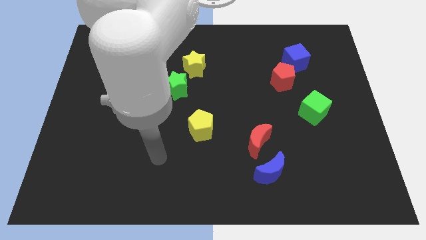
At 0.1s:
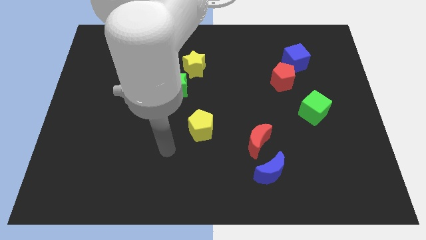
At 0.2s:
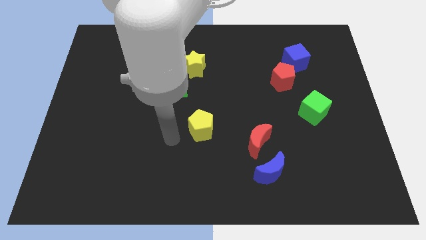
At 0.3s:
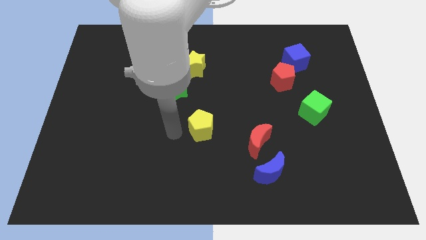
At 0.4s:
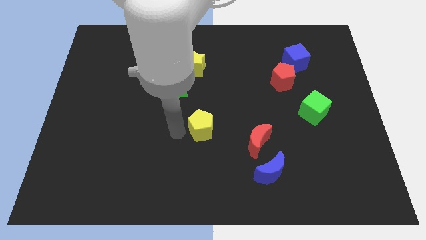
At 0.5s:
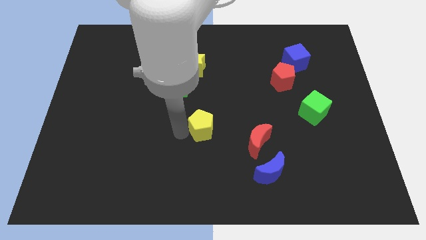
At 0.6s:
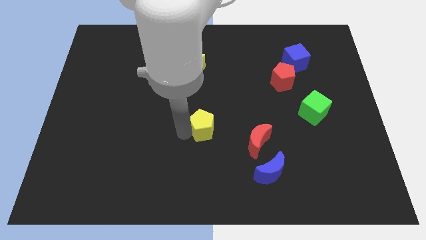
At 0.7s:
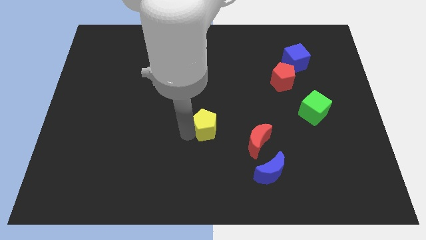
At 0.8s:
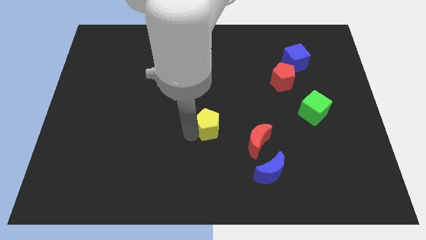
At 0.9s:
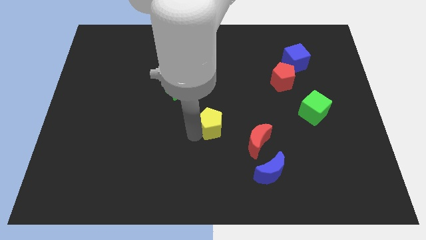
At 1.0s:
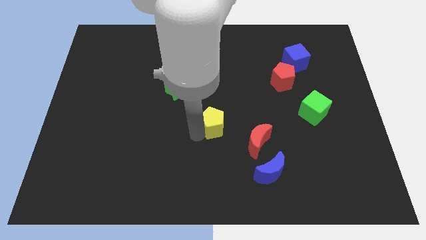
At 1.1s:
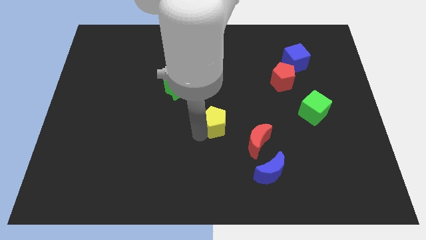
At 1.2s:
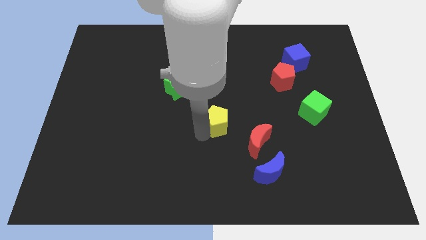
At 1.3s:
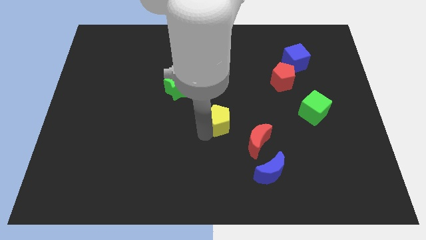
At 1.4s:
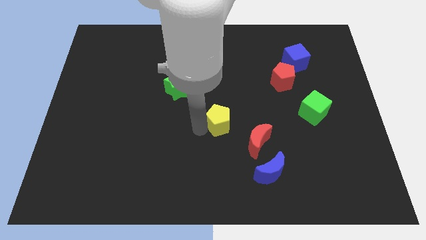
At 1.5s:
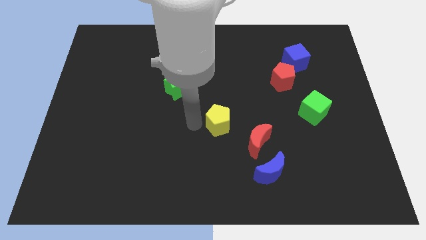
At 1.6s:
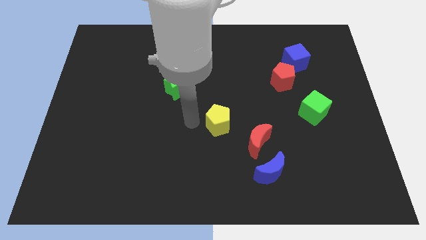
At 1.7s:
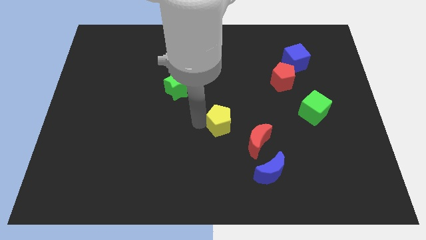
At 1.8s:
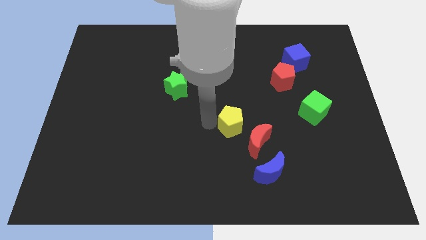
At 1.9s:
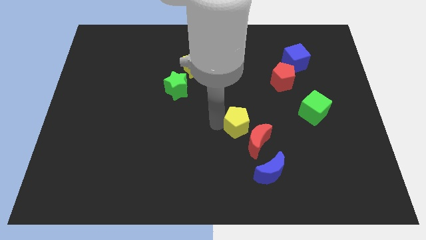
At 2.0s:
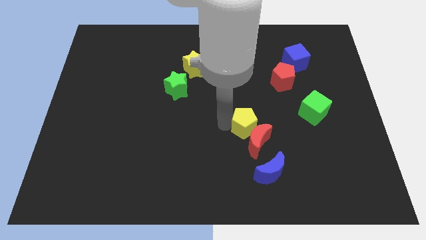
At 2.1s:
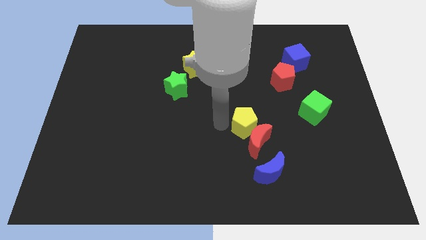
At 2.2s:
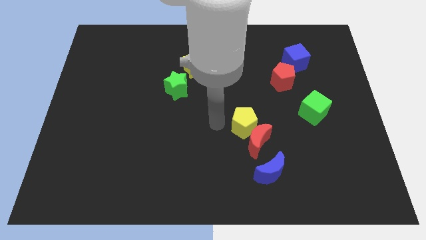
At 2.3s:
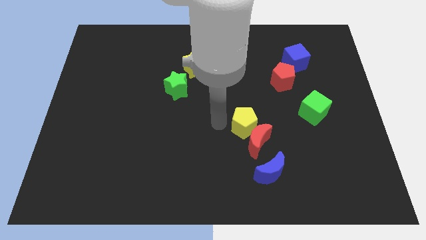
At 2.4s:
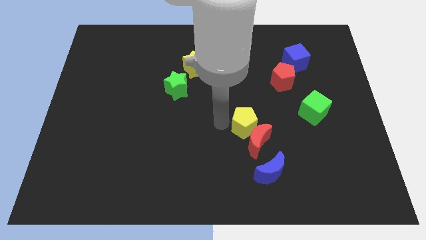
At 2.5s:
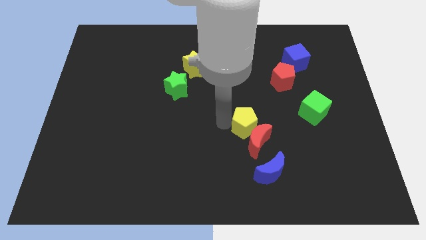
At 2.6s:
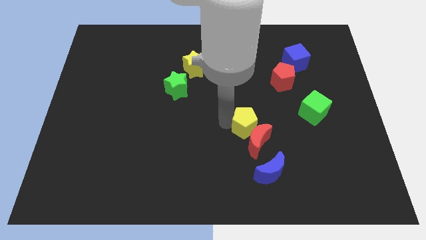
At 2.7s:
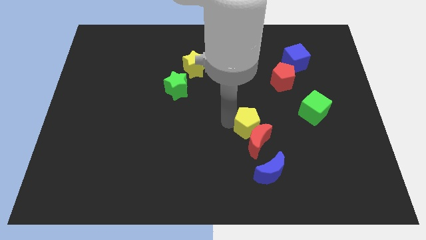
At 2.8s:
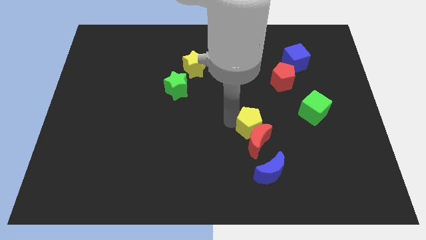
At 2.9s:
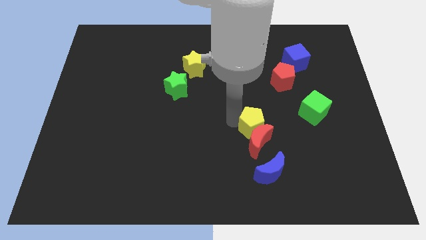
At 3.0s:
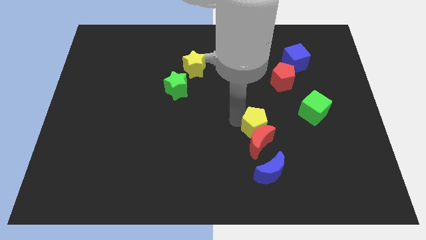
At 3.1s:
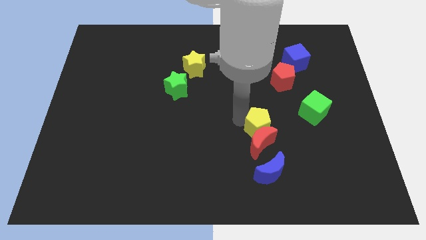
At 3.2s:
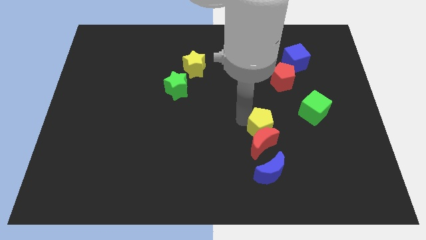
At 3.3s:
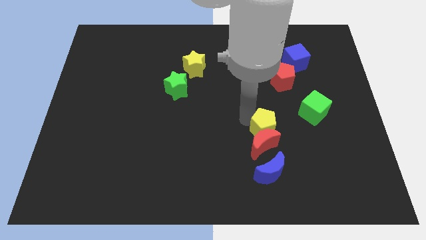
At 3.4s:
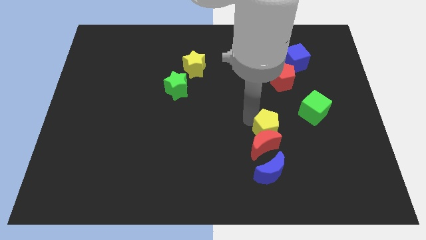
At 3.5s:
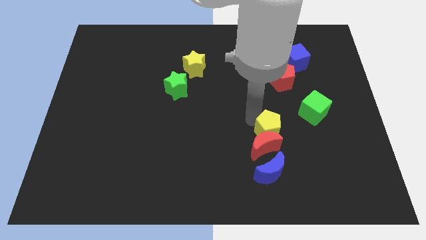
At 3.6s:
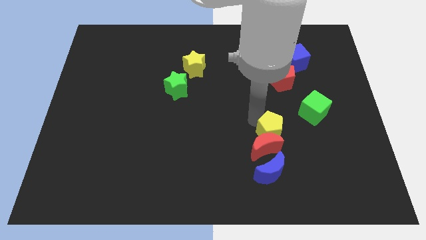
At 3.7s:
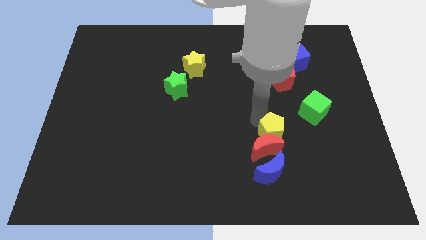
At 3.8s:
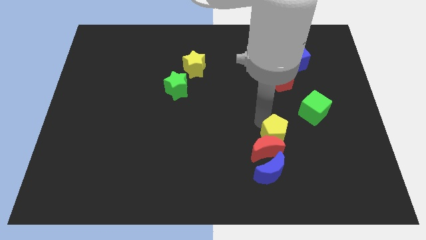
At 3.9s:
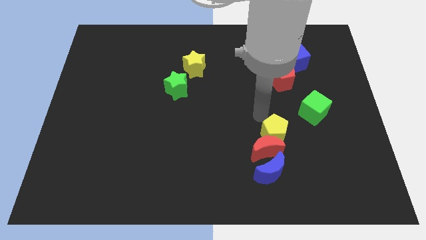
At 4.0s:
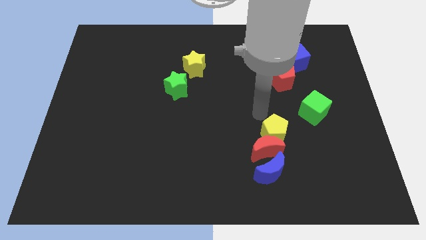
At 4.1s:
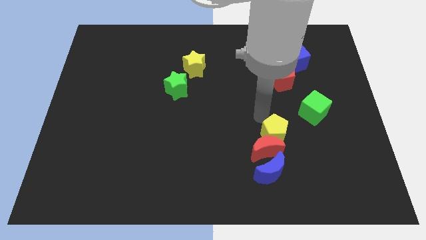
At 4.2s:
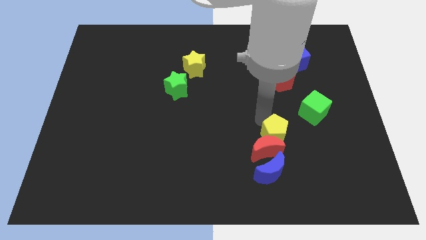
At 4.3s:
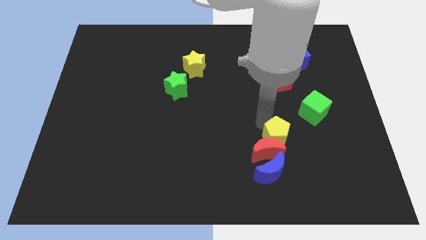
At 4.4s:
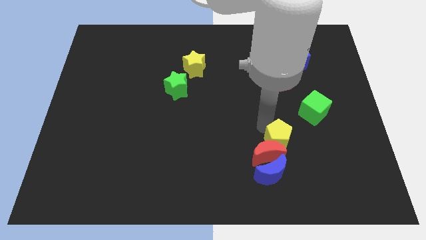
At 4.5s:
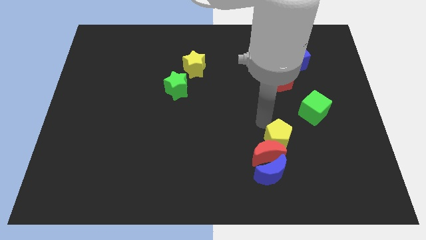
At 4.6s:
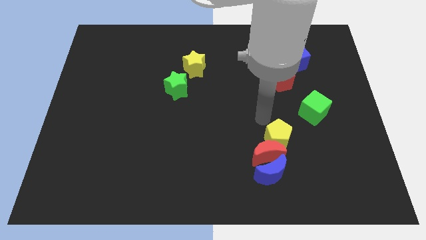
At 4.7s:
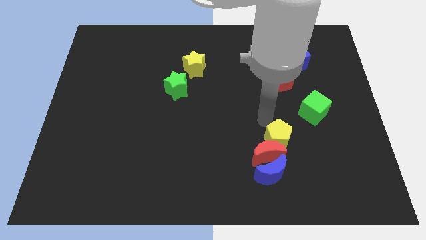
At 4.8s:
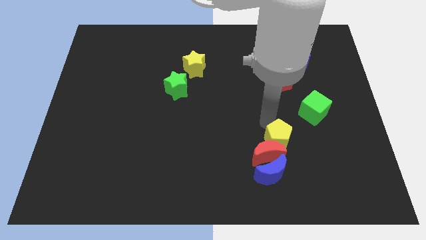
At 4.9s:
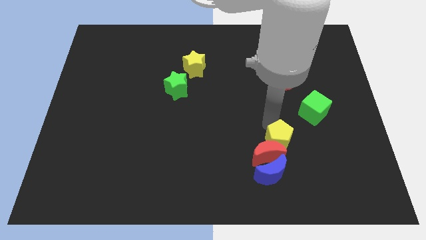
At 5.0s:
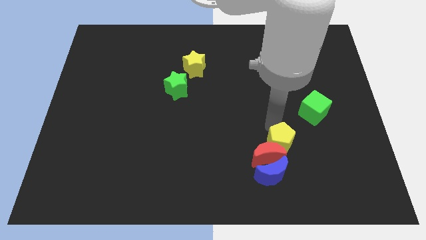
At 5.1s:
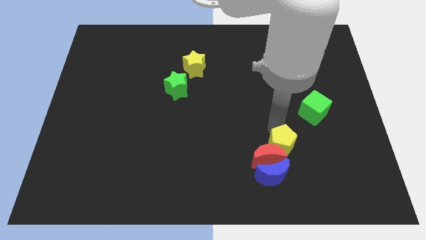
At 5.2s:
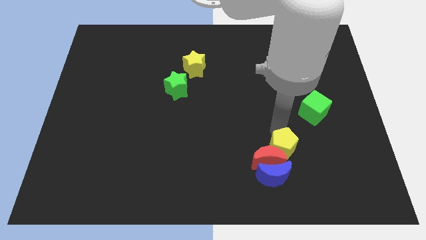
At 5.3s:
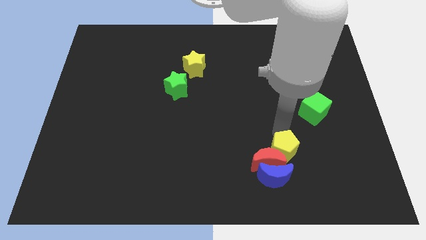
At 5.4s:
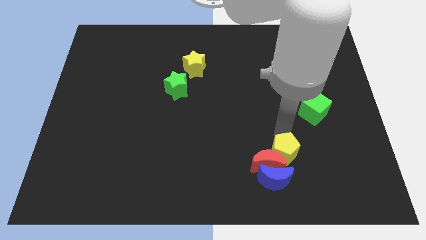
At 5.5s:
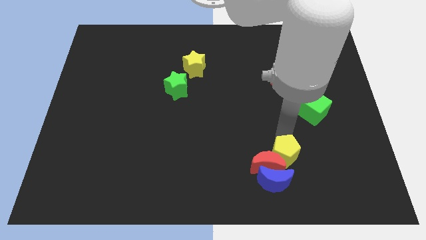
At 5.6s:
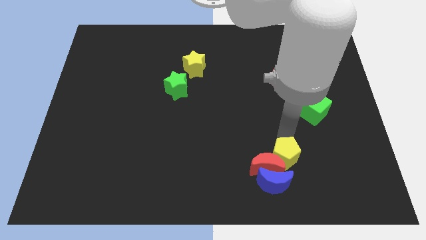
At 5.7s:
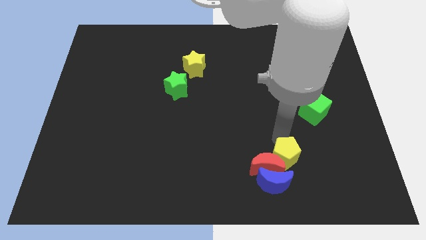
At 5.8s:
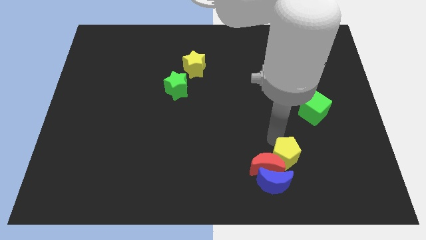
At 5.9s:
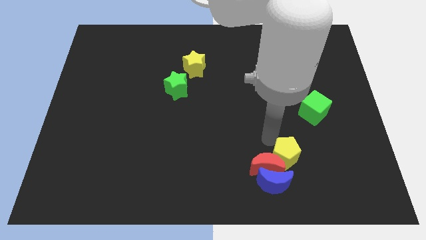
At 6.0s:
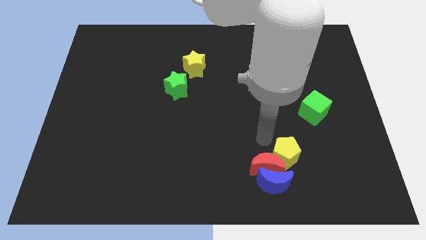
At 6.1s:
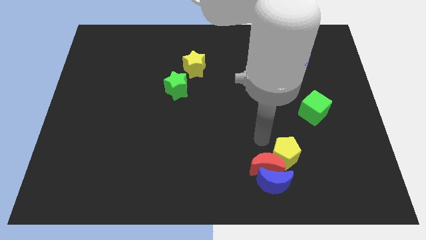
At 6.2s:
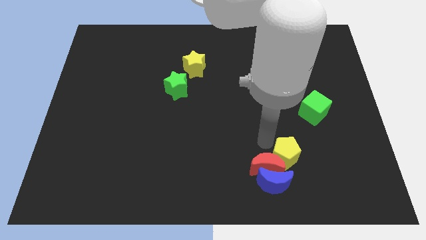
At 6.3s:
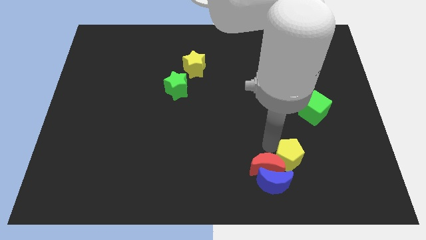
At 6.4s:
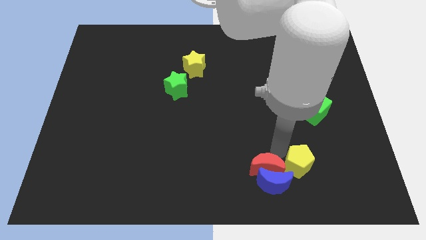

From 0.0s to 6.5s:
push the yellow pentagon right of the blue moon

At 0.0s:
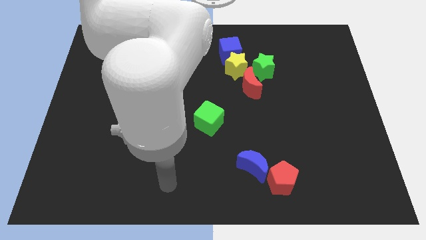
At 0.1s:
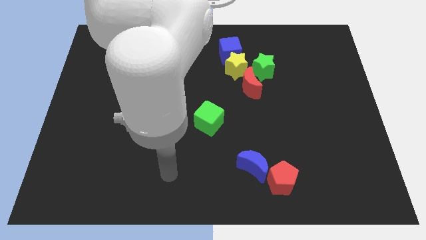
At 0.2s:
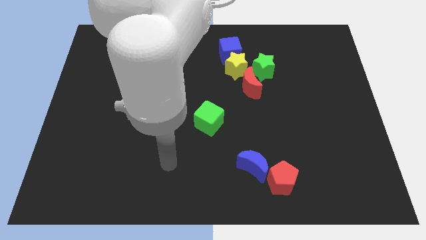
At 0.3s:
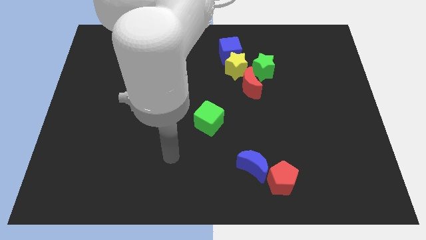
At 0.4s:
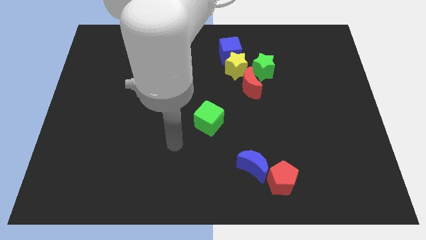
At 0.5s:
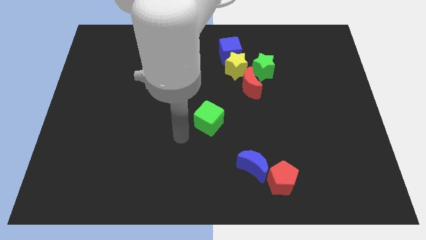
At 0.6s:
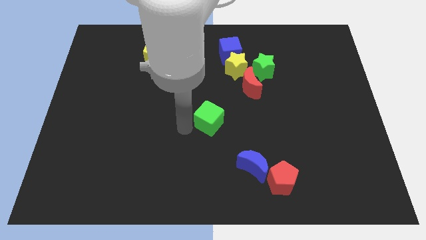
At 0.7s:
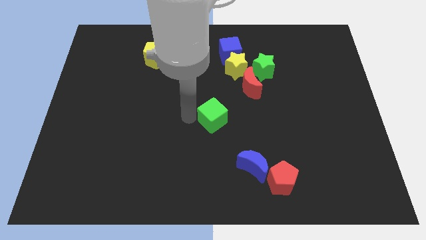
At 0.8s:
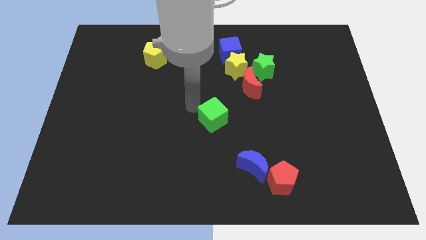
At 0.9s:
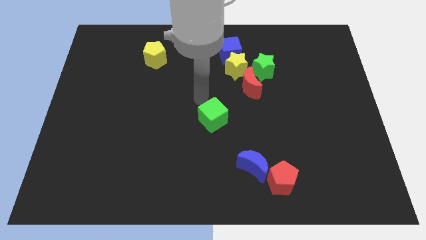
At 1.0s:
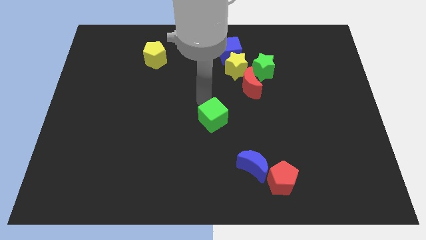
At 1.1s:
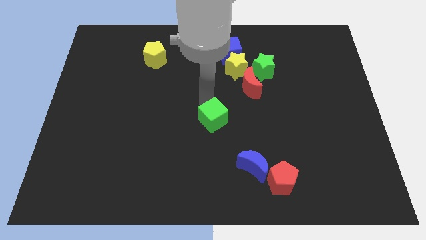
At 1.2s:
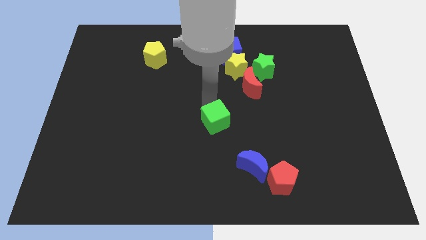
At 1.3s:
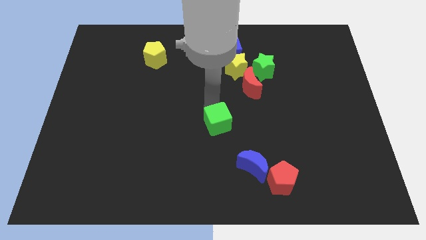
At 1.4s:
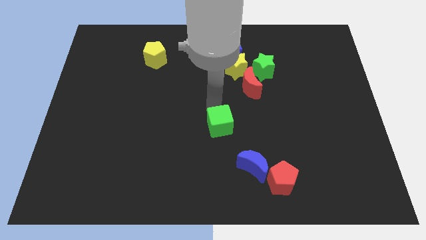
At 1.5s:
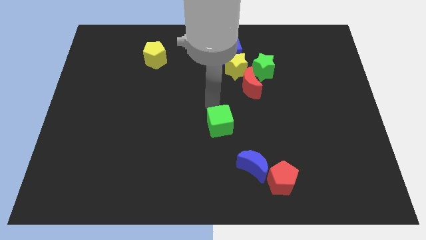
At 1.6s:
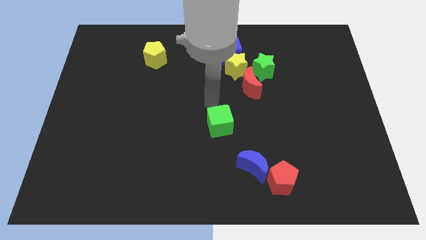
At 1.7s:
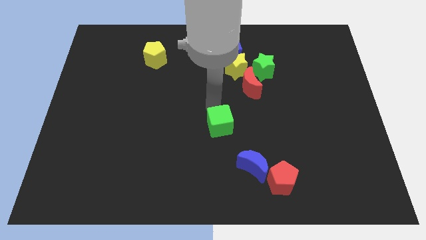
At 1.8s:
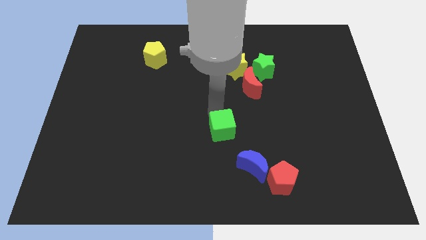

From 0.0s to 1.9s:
put the green cube to the top left side of the blue moon
